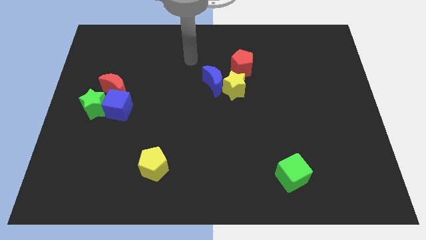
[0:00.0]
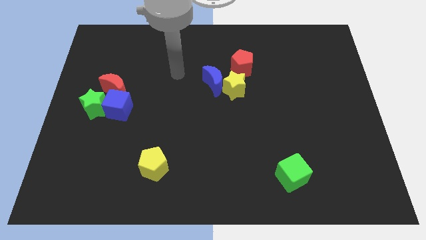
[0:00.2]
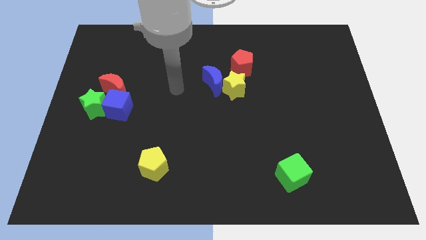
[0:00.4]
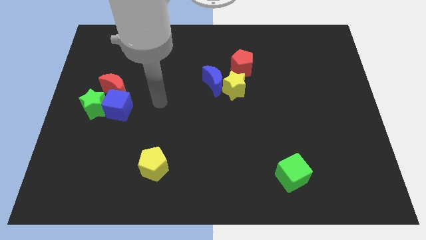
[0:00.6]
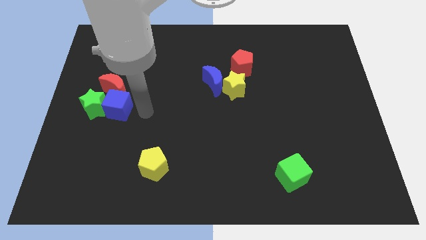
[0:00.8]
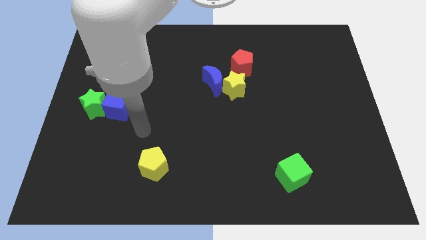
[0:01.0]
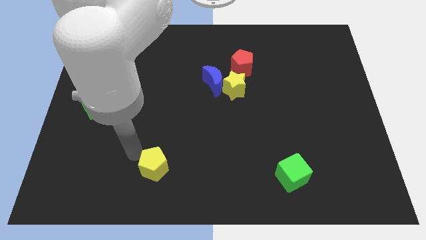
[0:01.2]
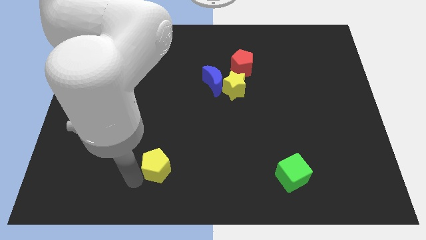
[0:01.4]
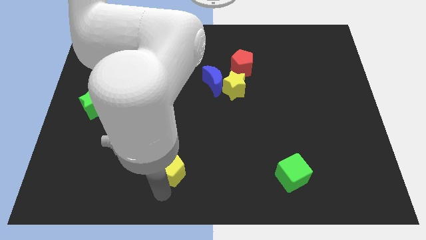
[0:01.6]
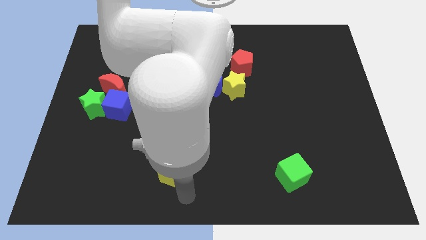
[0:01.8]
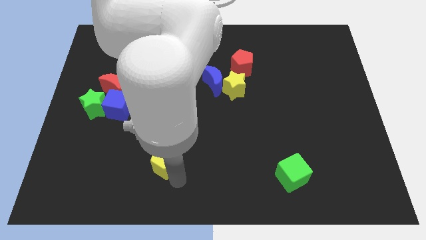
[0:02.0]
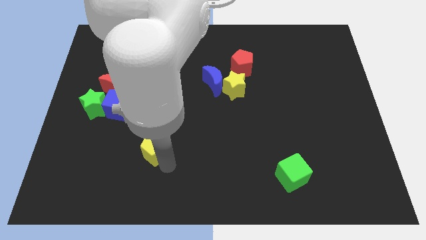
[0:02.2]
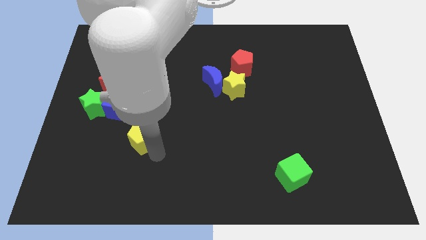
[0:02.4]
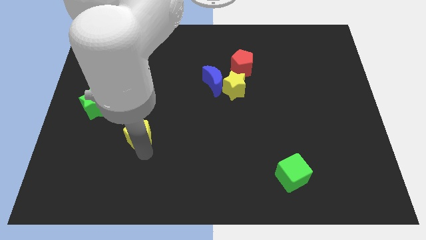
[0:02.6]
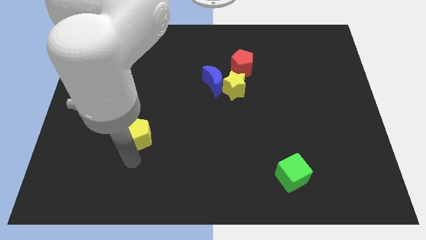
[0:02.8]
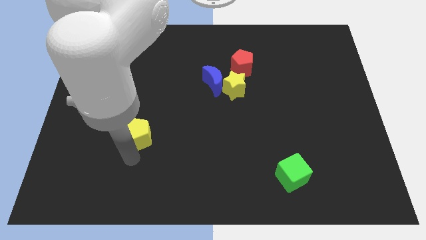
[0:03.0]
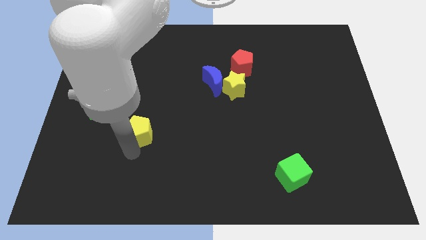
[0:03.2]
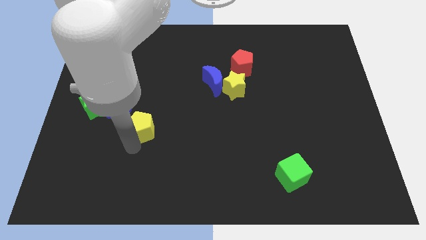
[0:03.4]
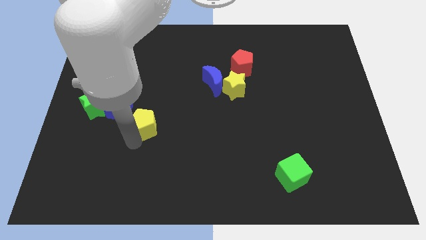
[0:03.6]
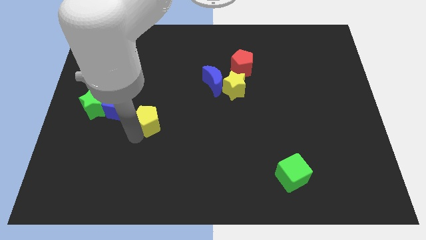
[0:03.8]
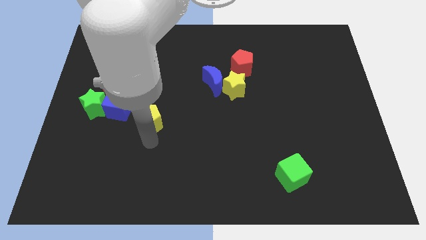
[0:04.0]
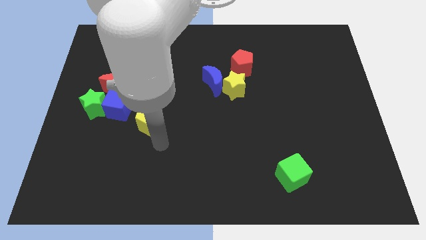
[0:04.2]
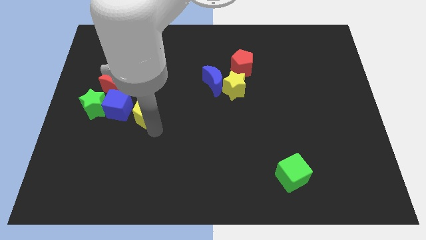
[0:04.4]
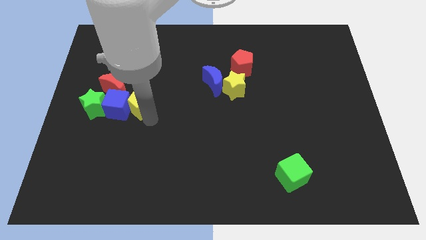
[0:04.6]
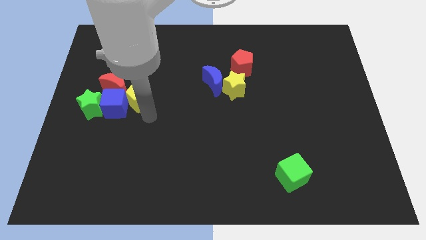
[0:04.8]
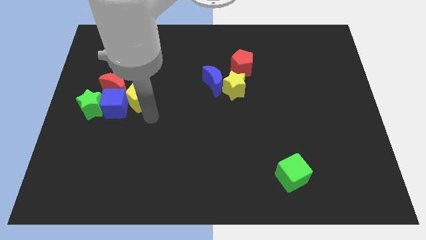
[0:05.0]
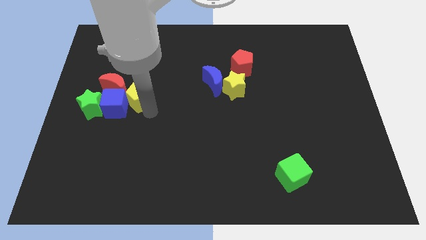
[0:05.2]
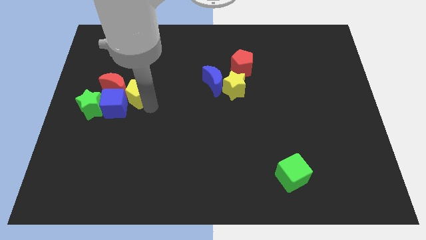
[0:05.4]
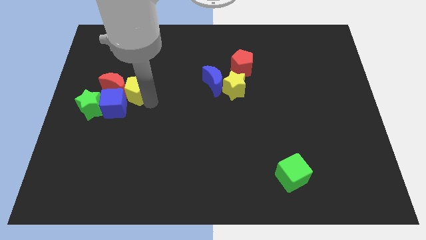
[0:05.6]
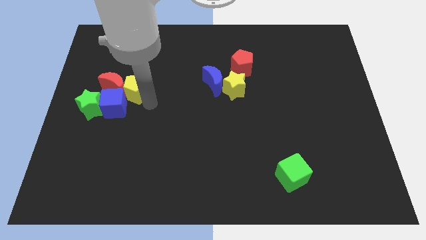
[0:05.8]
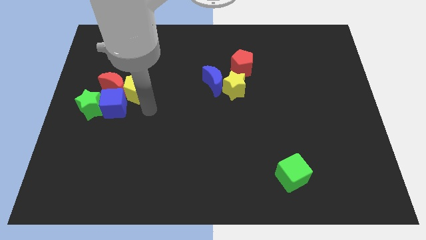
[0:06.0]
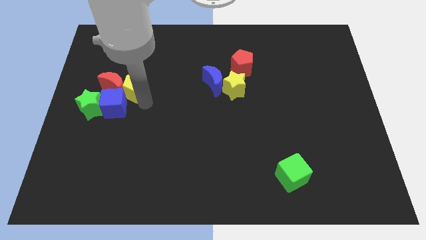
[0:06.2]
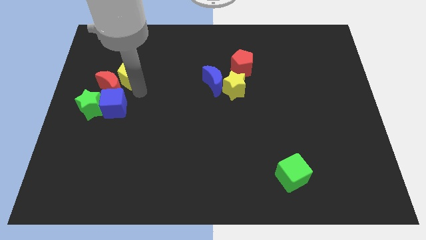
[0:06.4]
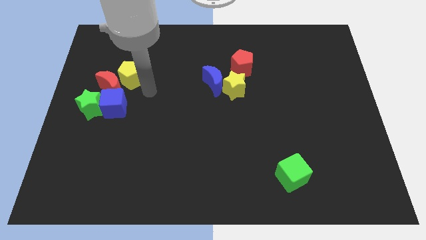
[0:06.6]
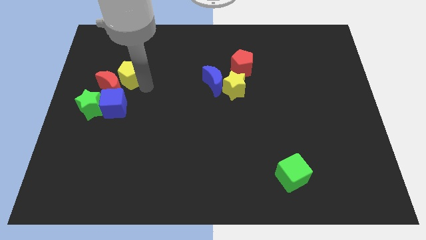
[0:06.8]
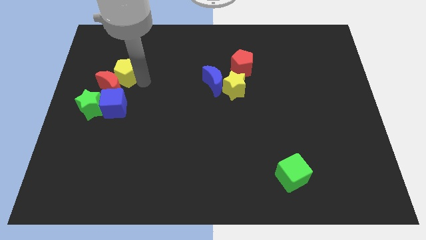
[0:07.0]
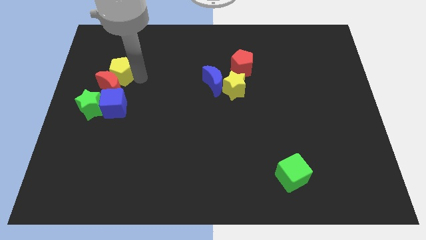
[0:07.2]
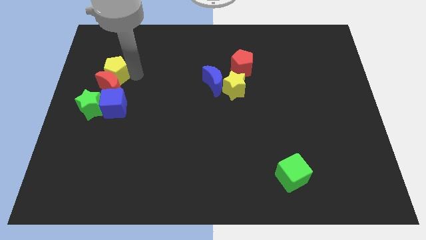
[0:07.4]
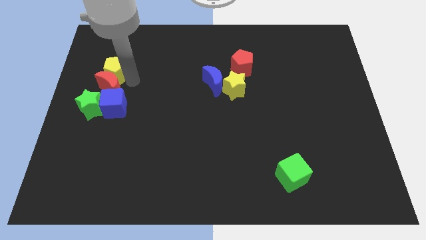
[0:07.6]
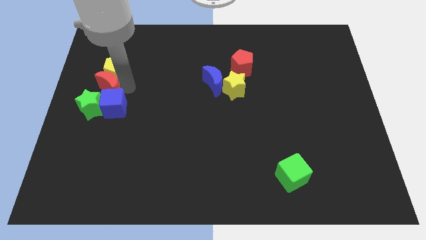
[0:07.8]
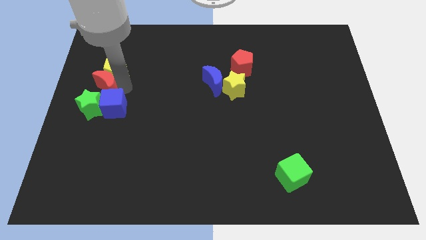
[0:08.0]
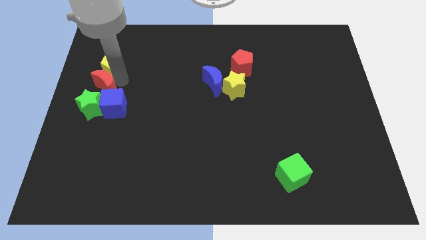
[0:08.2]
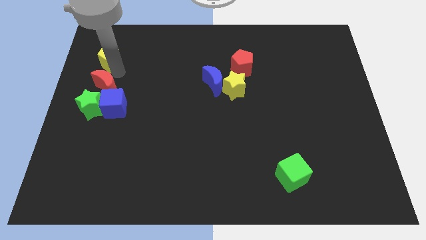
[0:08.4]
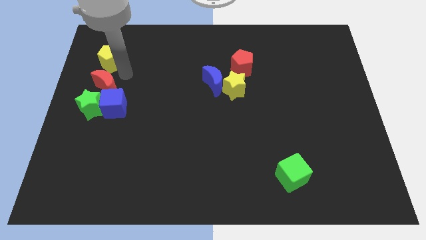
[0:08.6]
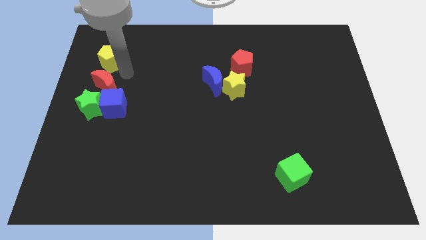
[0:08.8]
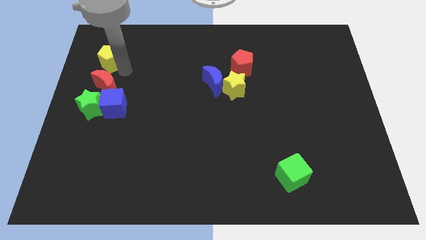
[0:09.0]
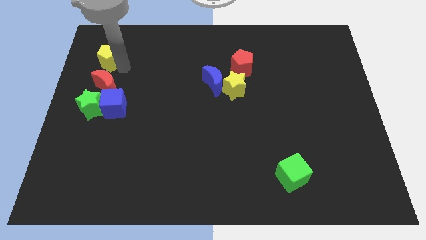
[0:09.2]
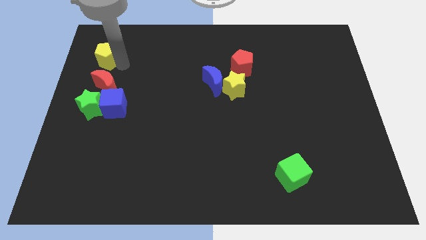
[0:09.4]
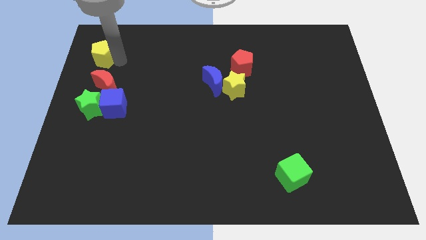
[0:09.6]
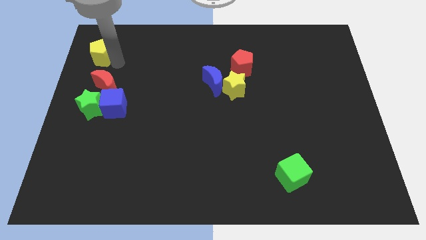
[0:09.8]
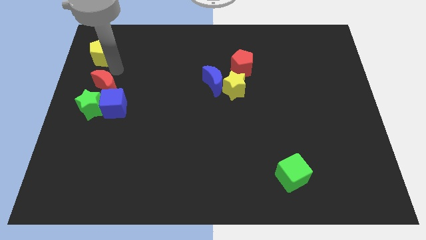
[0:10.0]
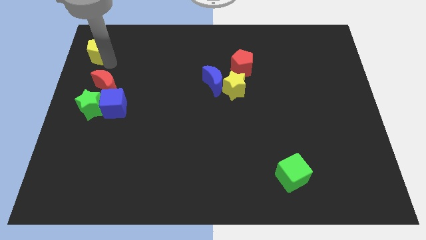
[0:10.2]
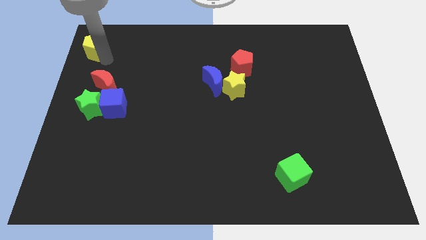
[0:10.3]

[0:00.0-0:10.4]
push the yellow pentagon to the top left corner

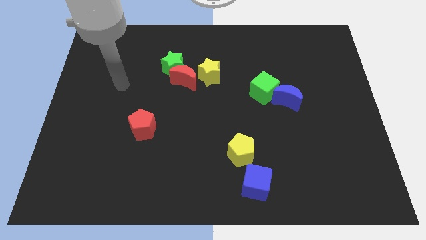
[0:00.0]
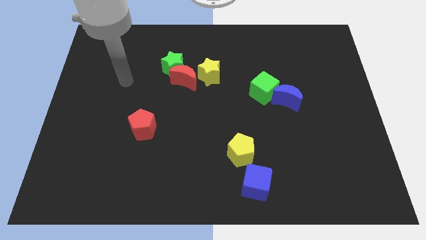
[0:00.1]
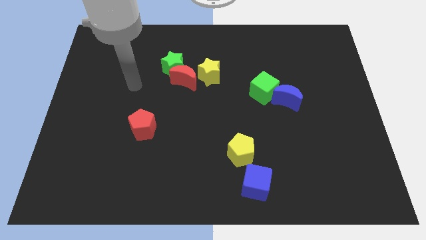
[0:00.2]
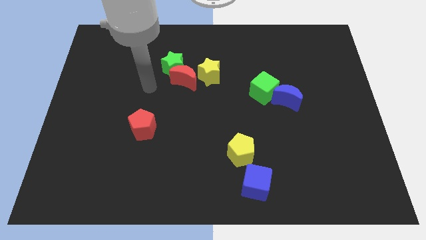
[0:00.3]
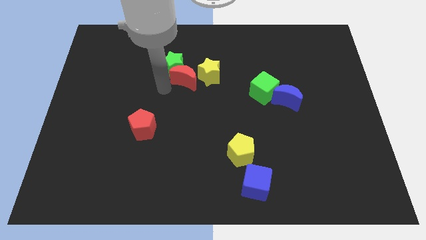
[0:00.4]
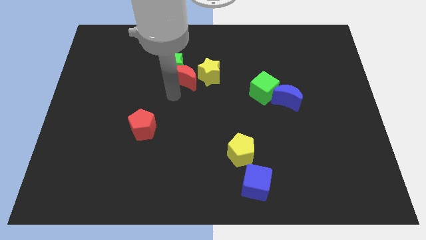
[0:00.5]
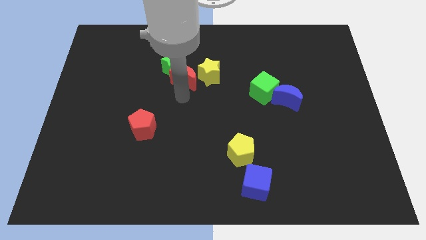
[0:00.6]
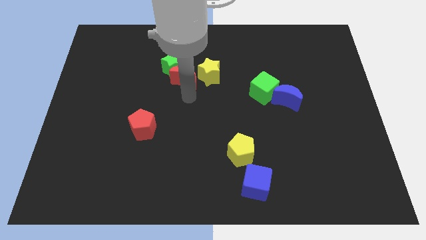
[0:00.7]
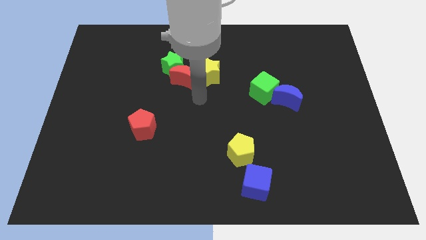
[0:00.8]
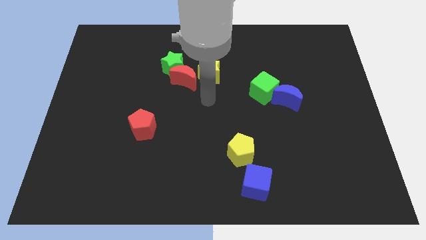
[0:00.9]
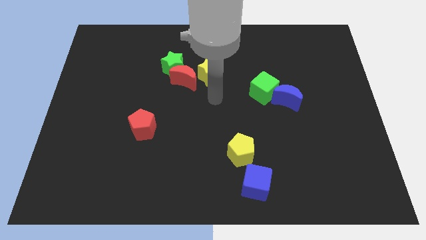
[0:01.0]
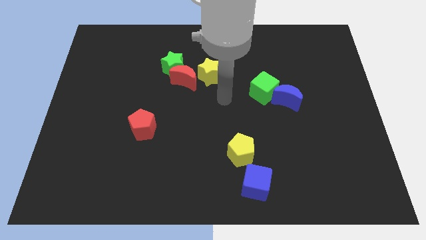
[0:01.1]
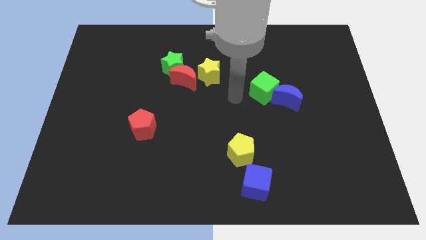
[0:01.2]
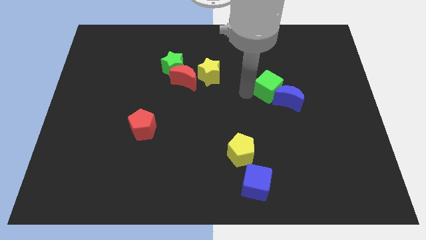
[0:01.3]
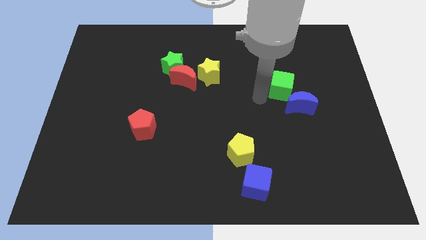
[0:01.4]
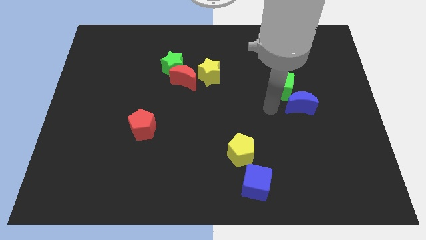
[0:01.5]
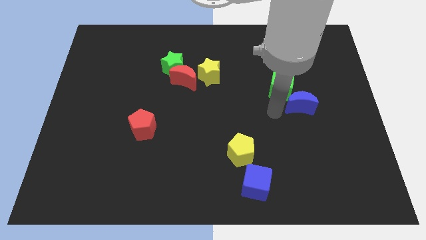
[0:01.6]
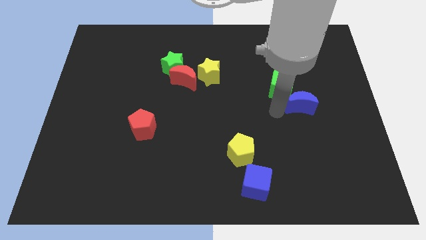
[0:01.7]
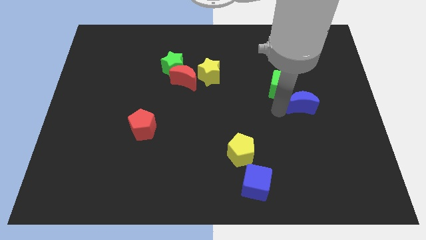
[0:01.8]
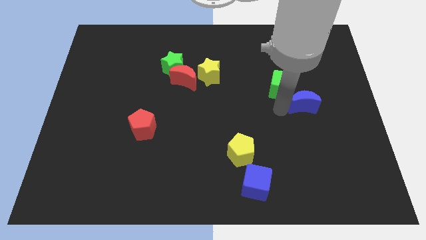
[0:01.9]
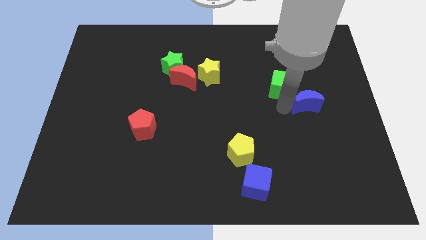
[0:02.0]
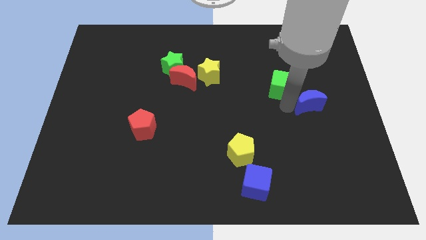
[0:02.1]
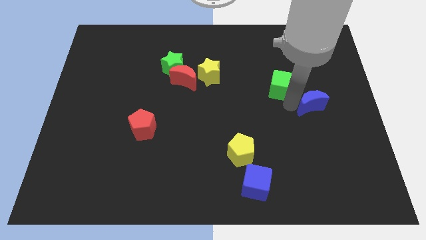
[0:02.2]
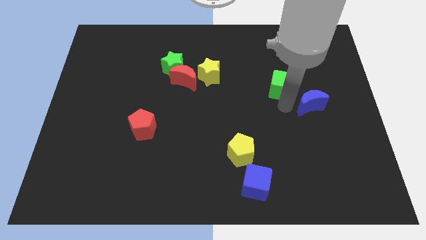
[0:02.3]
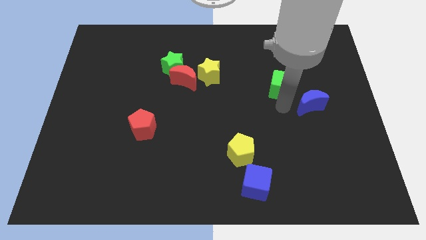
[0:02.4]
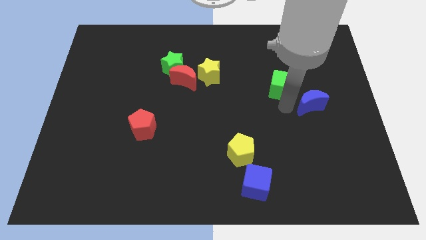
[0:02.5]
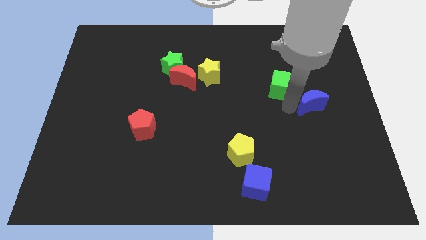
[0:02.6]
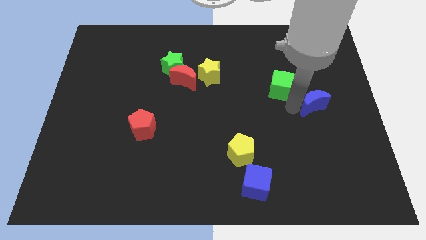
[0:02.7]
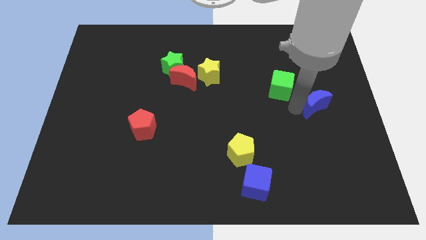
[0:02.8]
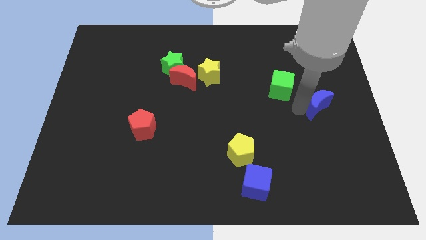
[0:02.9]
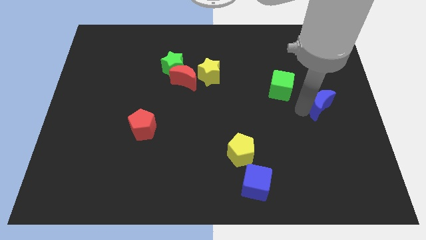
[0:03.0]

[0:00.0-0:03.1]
put the blue moon to the right side
